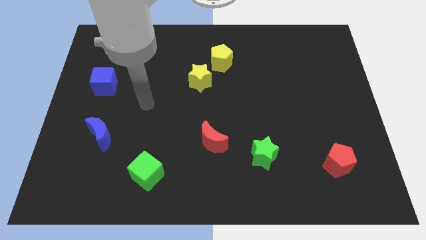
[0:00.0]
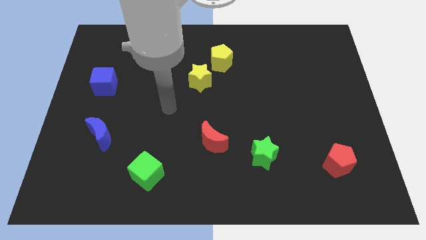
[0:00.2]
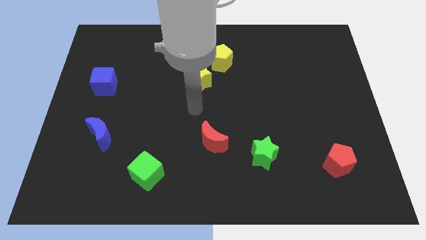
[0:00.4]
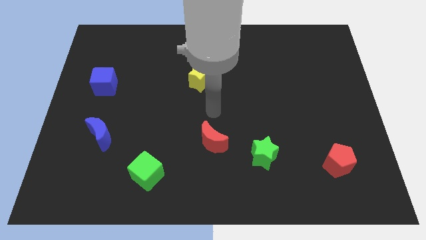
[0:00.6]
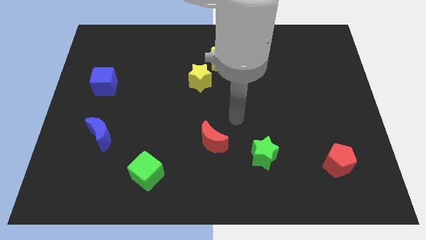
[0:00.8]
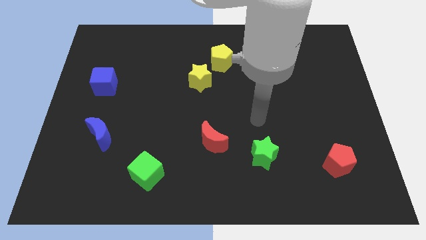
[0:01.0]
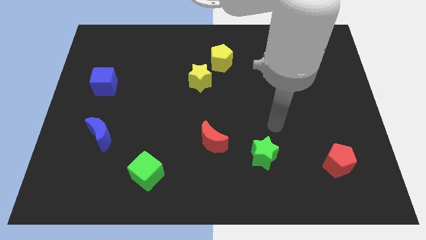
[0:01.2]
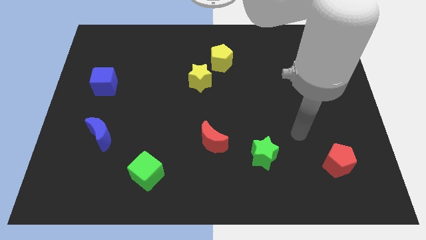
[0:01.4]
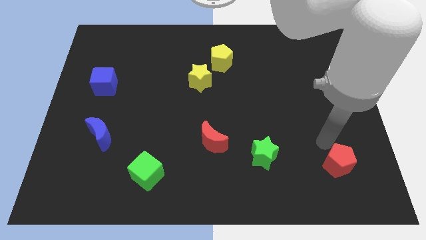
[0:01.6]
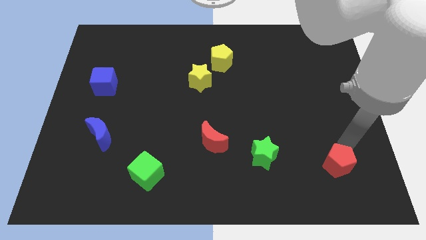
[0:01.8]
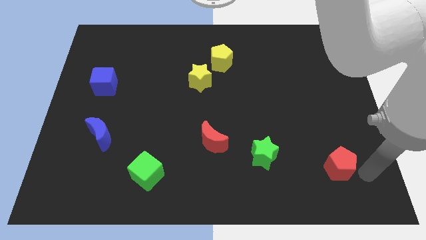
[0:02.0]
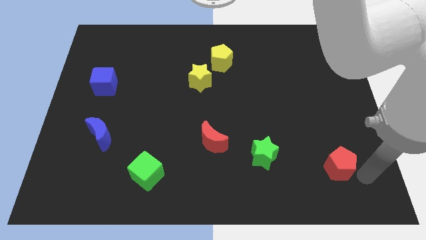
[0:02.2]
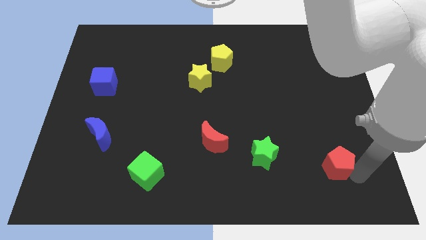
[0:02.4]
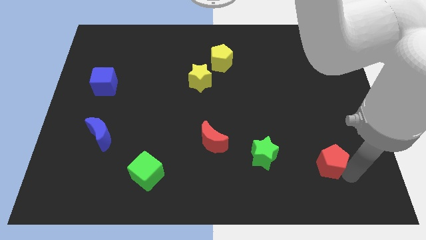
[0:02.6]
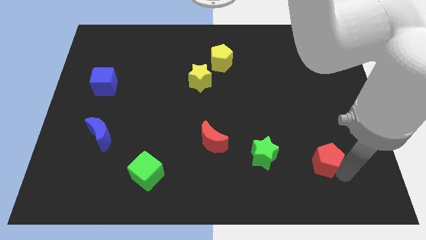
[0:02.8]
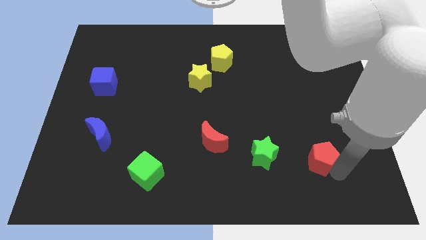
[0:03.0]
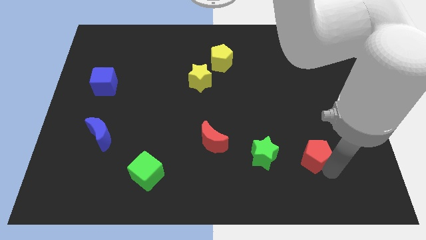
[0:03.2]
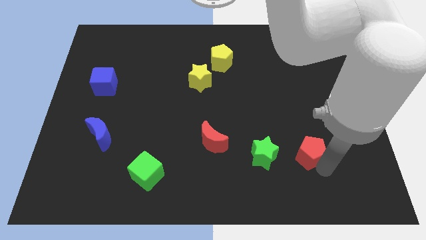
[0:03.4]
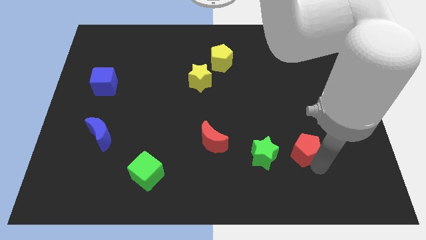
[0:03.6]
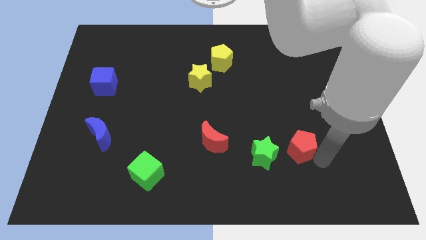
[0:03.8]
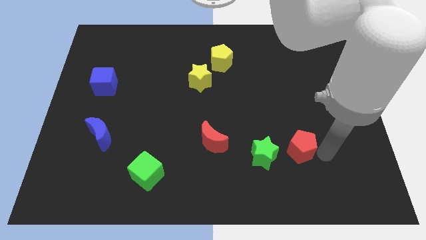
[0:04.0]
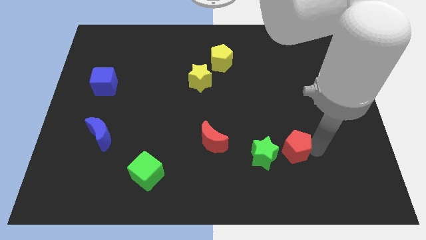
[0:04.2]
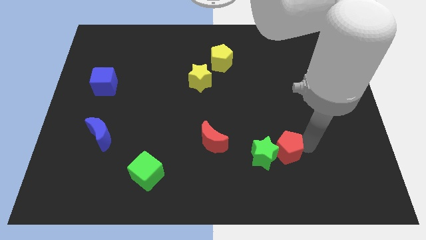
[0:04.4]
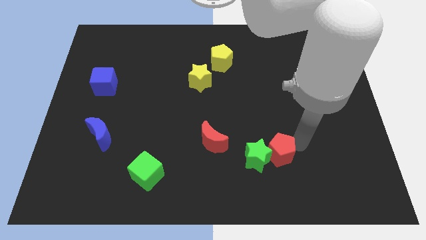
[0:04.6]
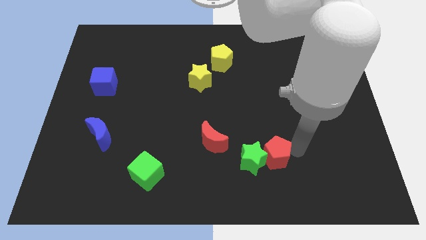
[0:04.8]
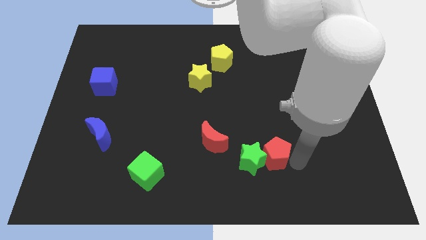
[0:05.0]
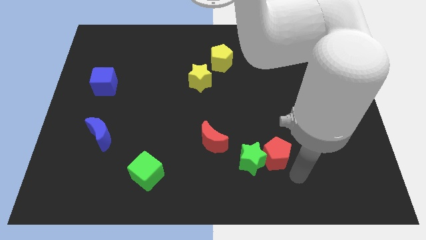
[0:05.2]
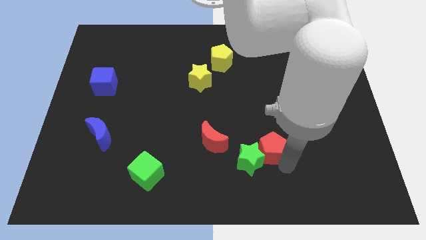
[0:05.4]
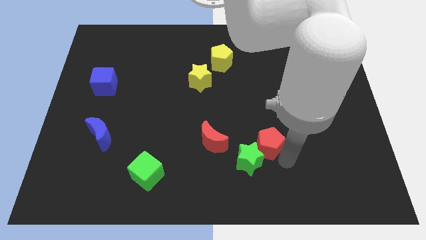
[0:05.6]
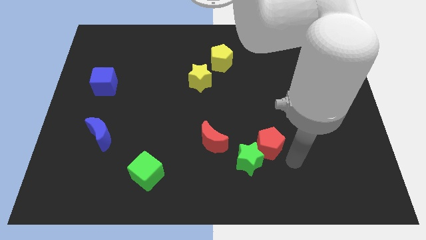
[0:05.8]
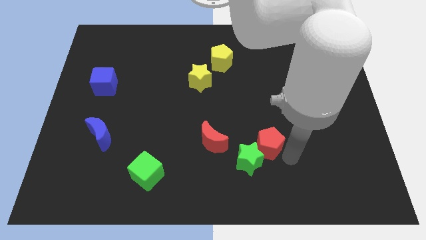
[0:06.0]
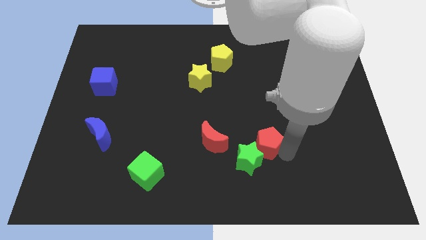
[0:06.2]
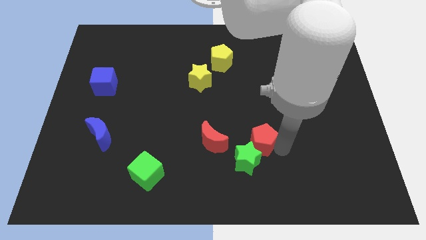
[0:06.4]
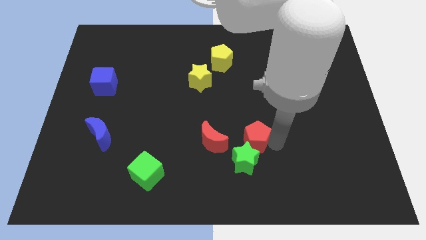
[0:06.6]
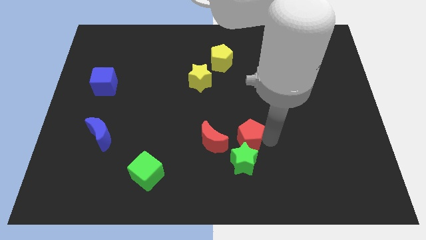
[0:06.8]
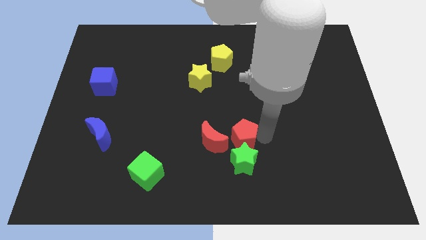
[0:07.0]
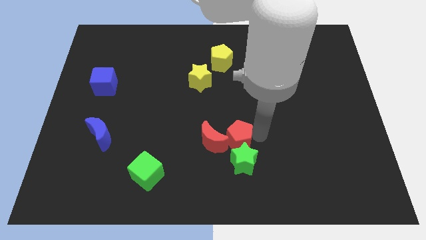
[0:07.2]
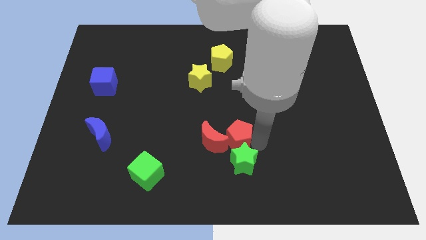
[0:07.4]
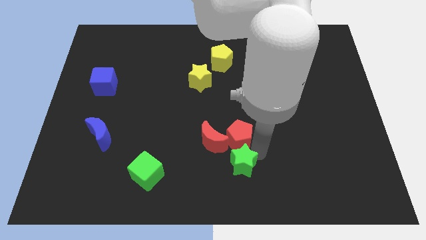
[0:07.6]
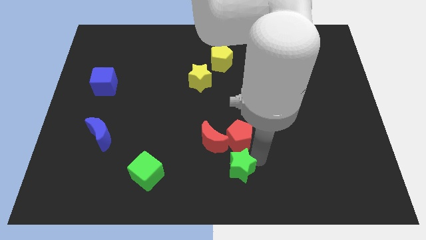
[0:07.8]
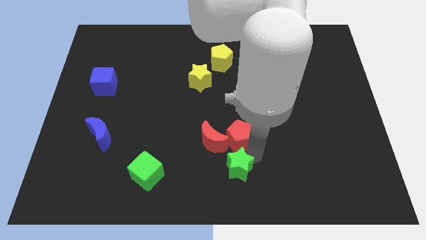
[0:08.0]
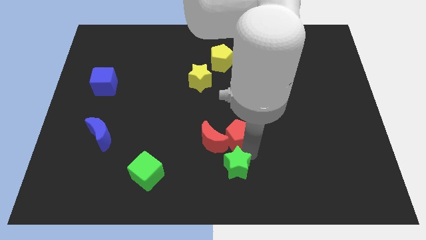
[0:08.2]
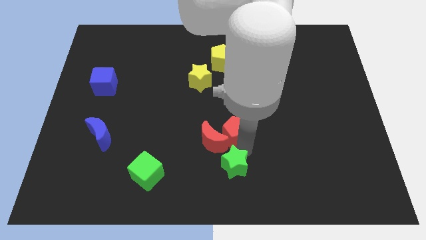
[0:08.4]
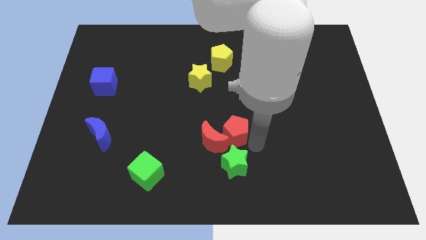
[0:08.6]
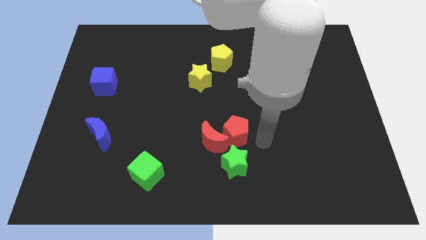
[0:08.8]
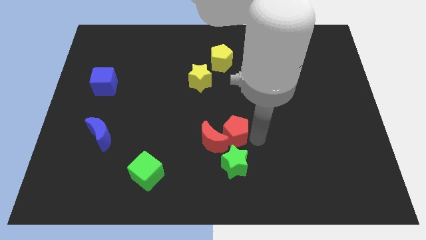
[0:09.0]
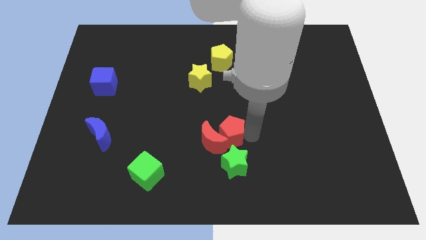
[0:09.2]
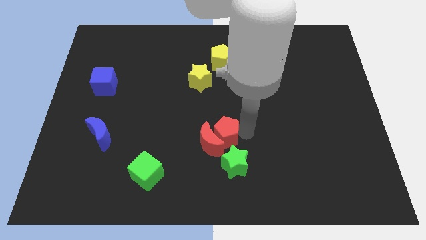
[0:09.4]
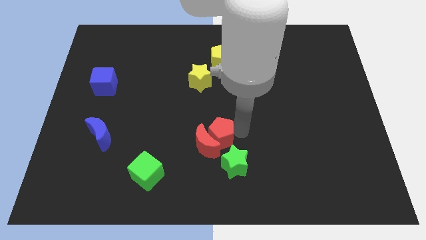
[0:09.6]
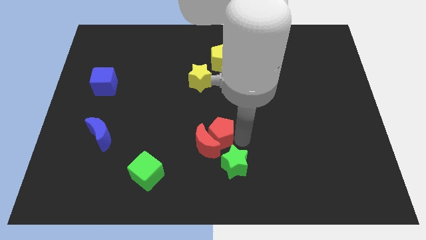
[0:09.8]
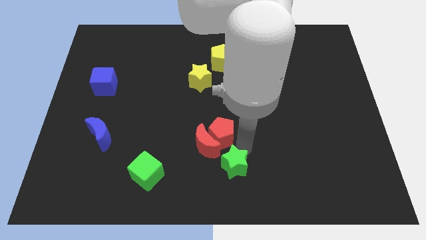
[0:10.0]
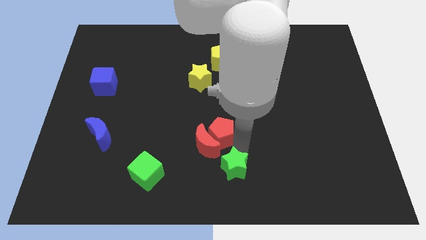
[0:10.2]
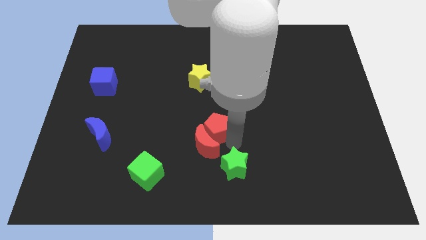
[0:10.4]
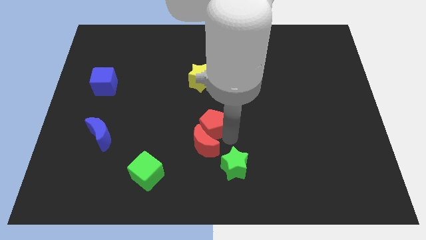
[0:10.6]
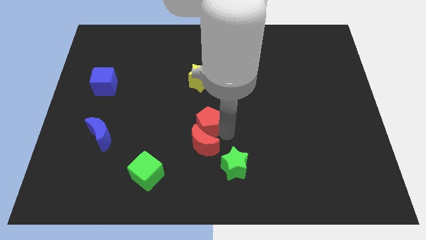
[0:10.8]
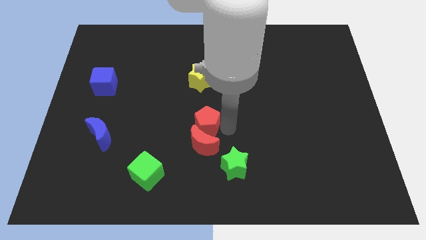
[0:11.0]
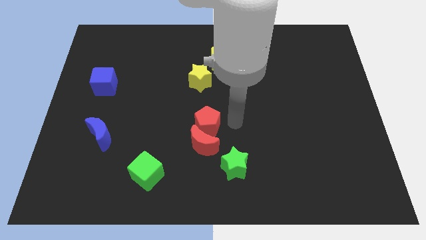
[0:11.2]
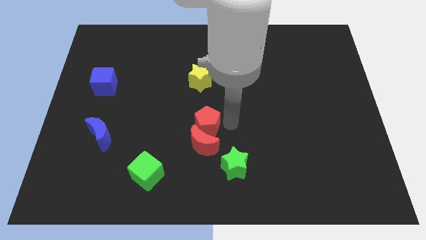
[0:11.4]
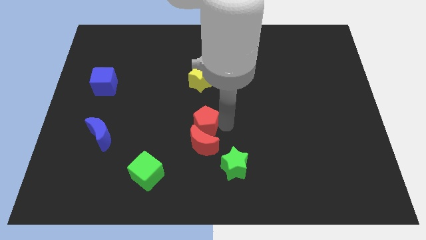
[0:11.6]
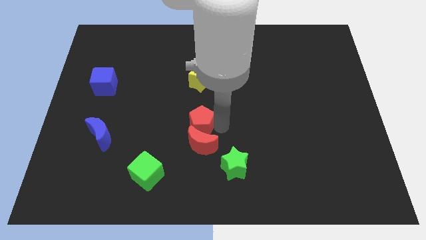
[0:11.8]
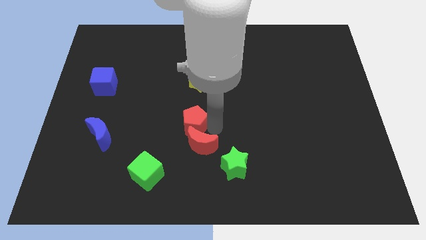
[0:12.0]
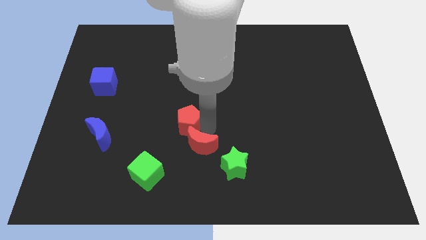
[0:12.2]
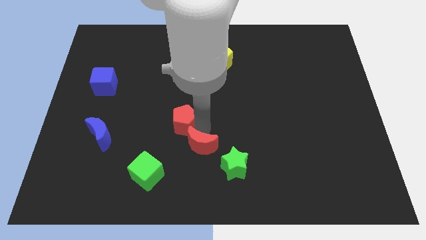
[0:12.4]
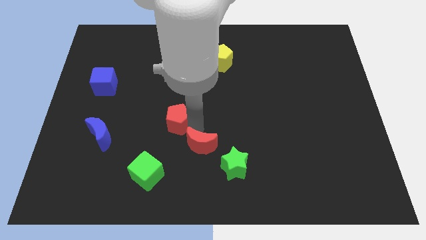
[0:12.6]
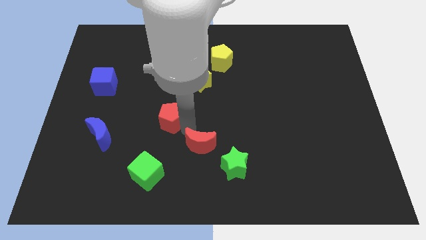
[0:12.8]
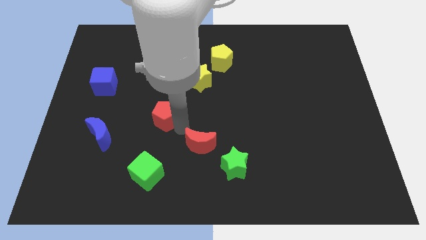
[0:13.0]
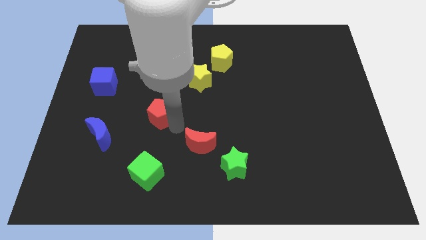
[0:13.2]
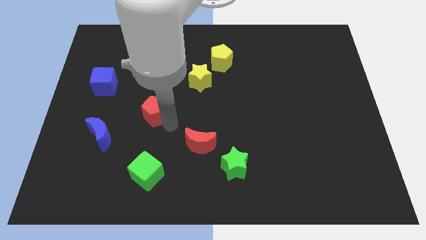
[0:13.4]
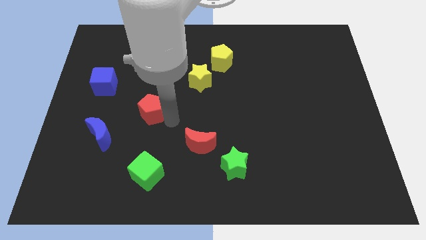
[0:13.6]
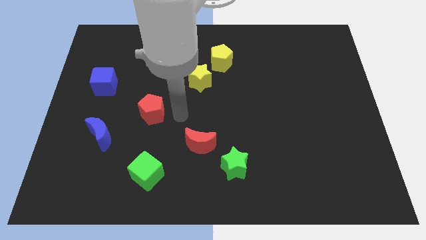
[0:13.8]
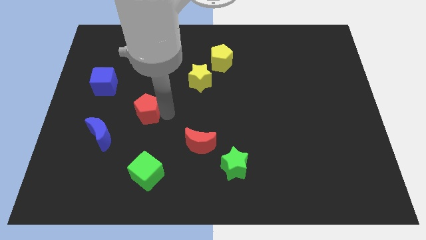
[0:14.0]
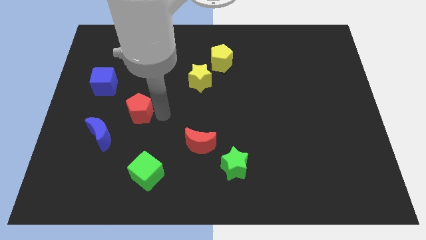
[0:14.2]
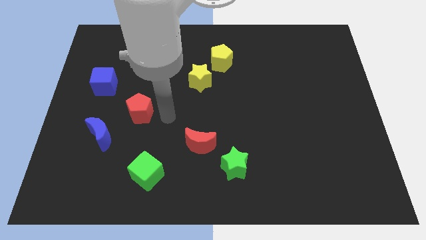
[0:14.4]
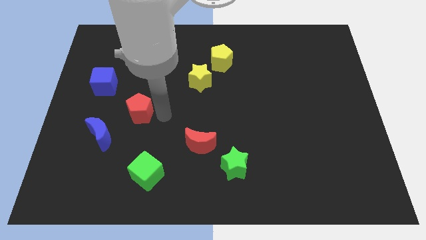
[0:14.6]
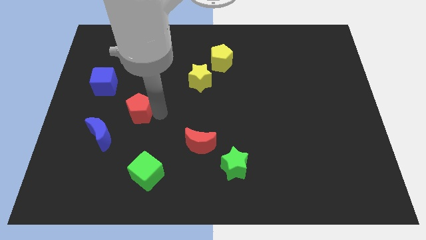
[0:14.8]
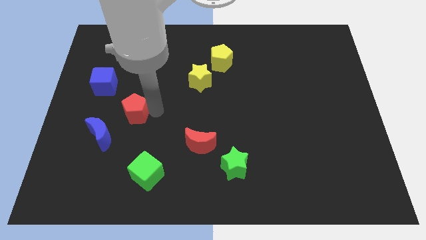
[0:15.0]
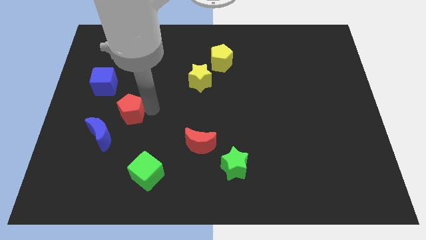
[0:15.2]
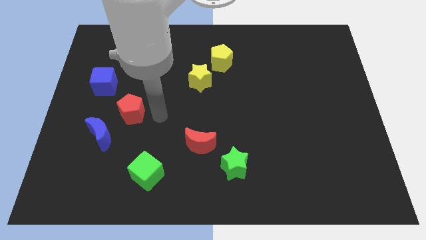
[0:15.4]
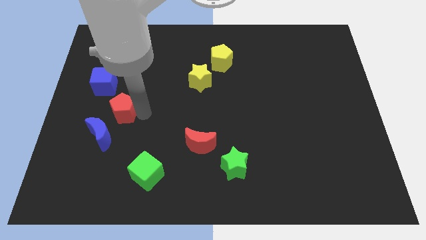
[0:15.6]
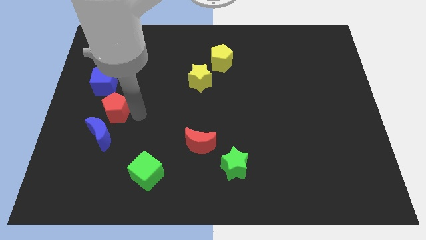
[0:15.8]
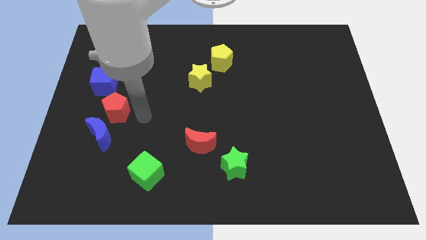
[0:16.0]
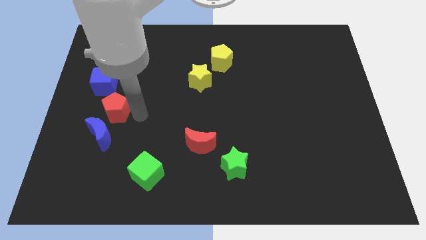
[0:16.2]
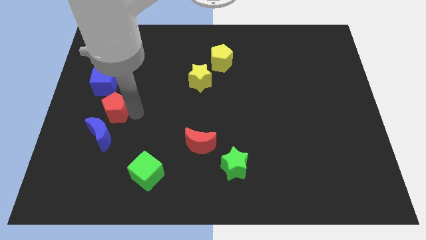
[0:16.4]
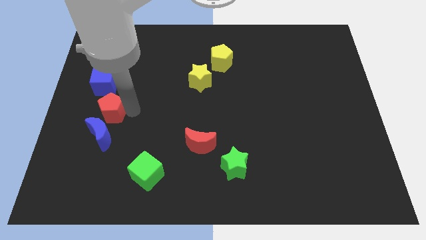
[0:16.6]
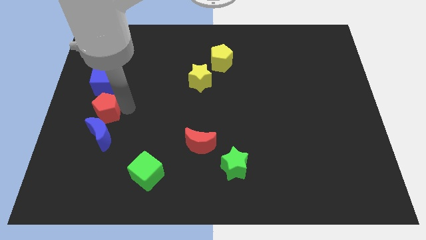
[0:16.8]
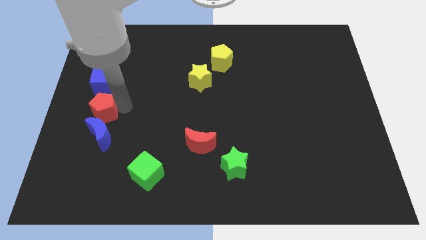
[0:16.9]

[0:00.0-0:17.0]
move the red pentagon to the center left
